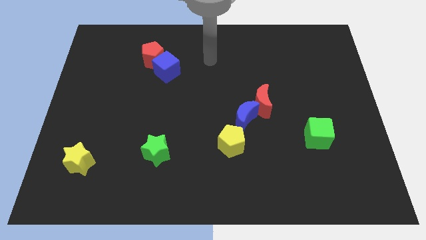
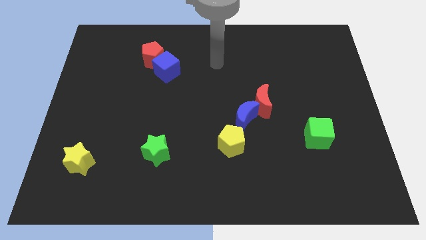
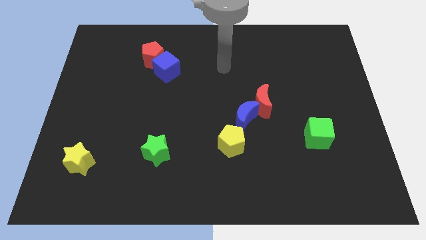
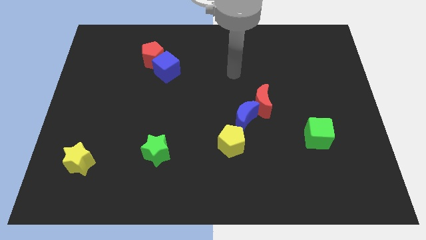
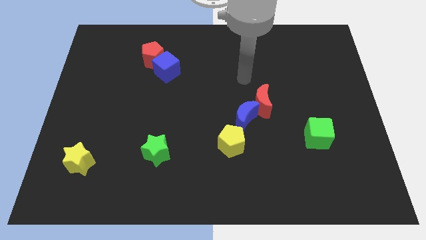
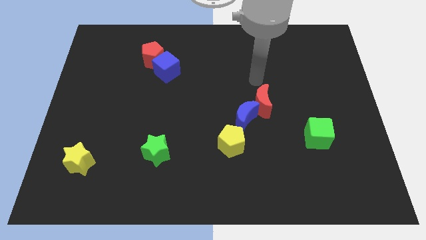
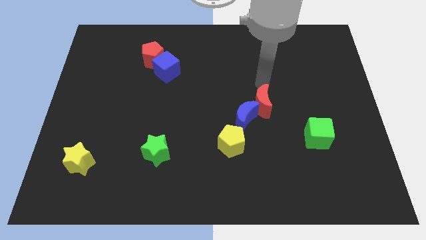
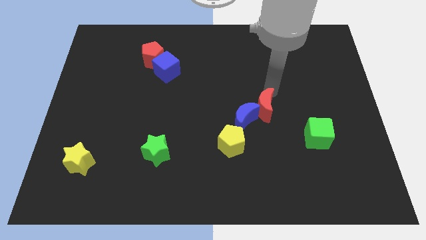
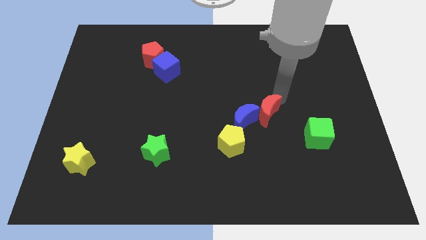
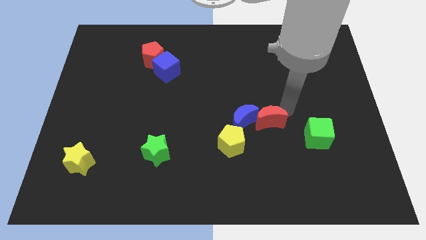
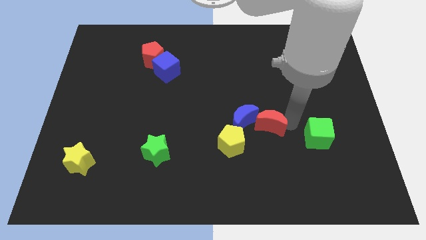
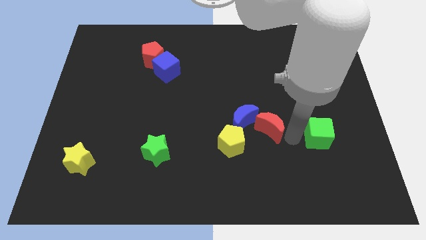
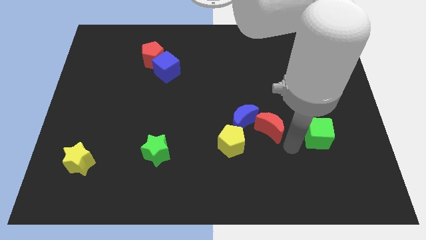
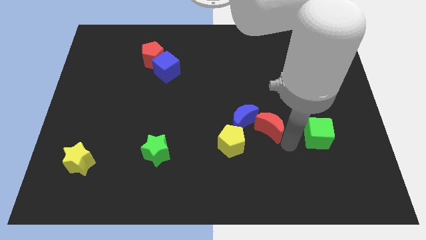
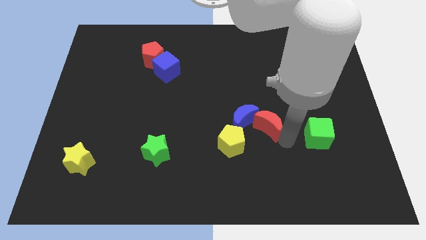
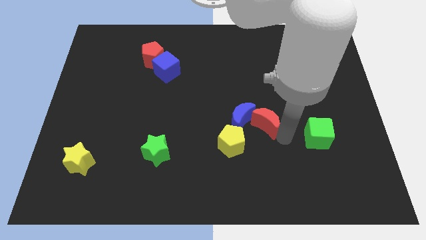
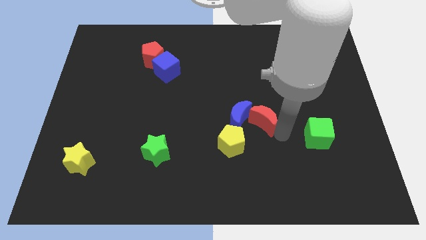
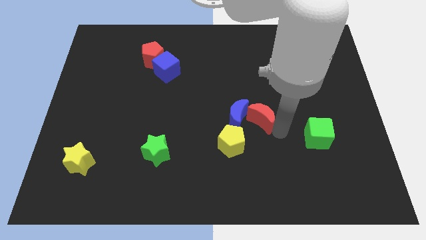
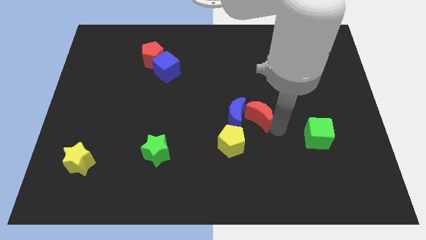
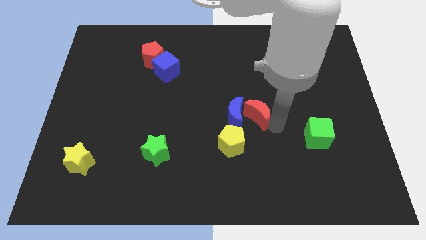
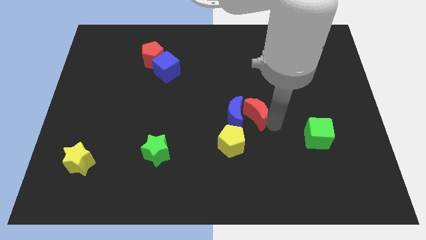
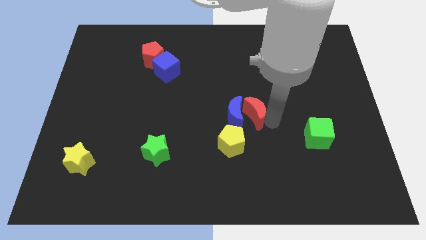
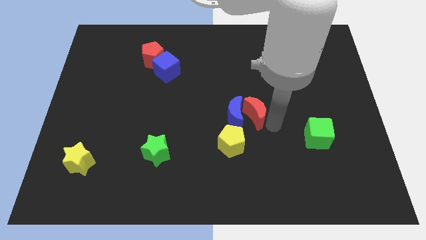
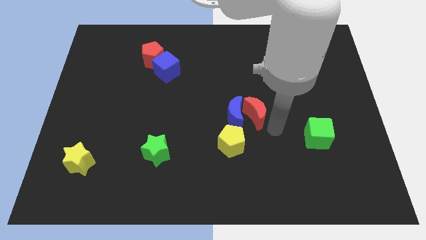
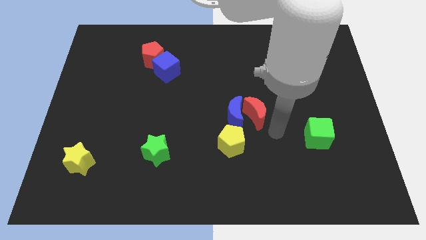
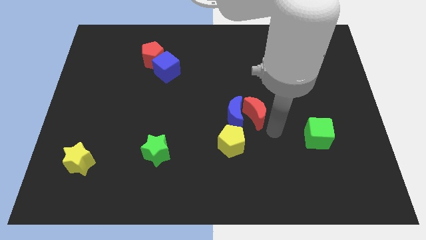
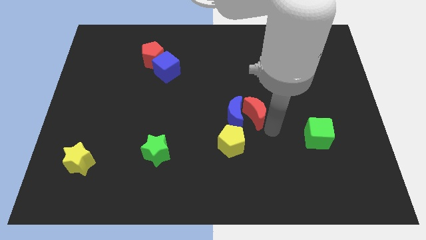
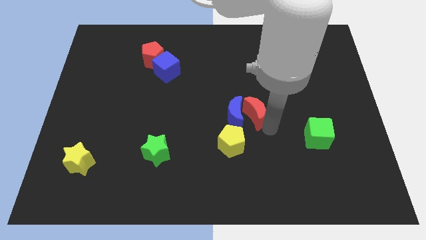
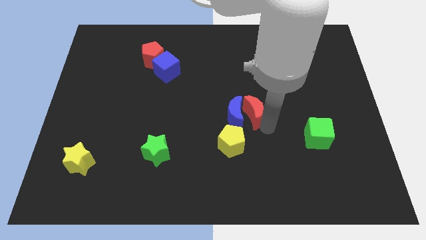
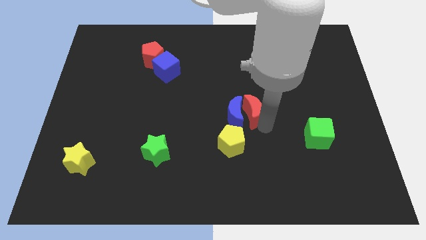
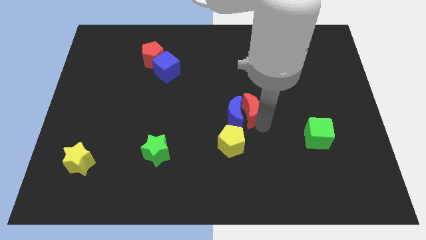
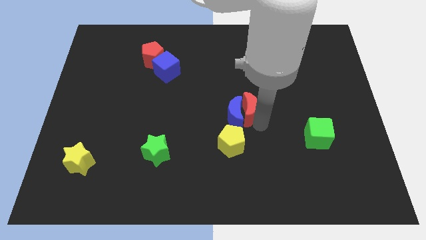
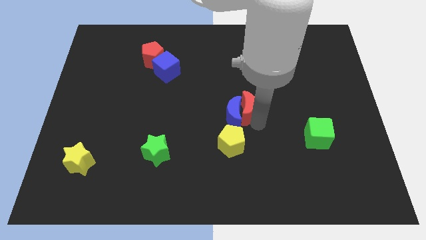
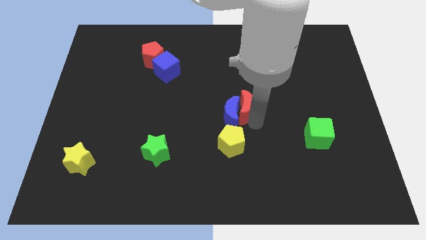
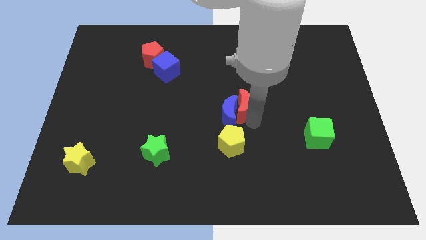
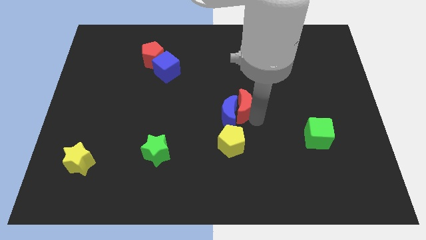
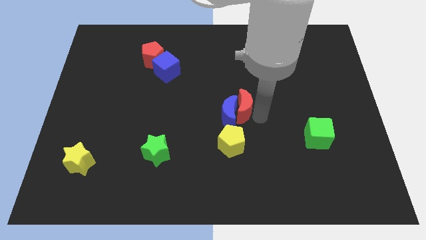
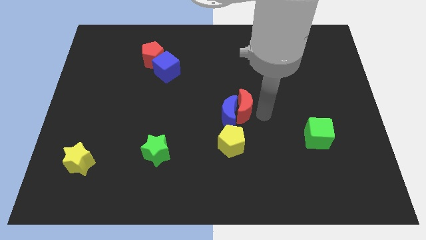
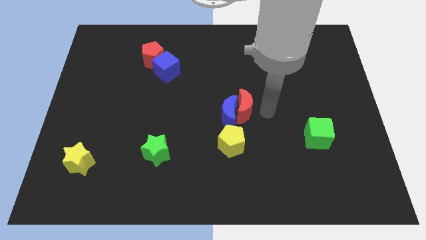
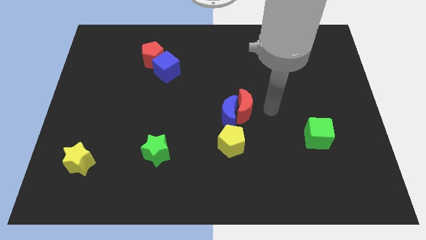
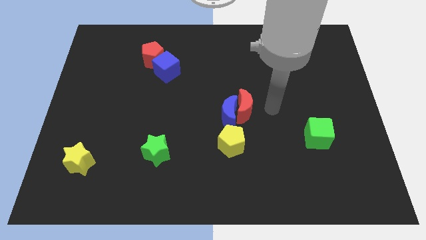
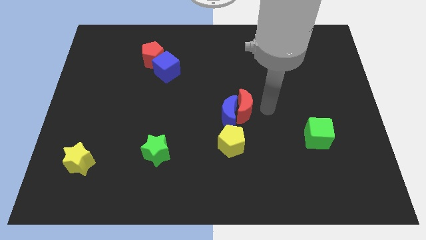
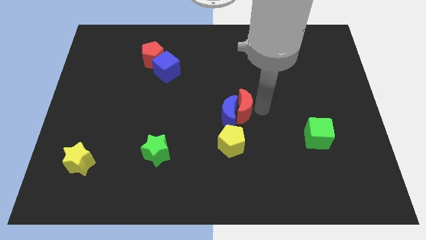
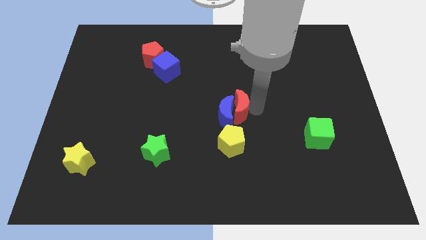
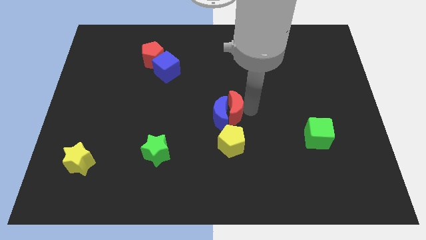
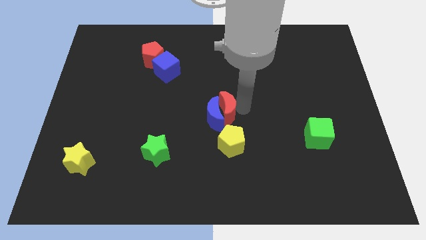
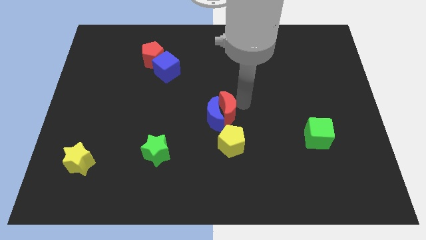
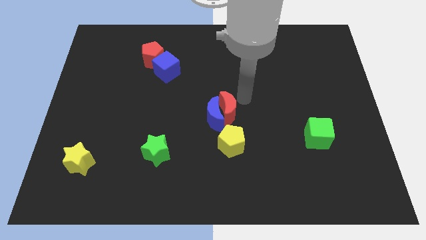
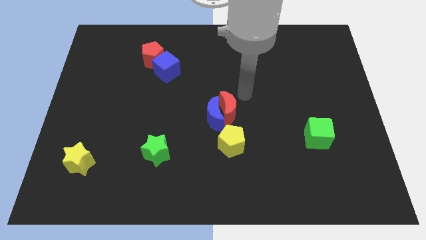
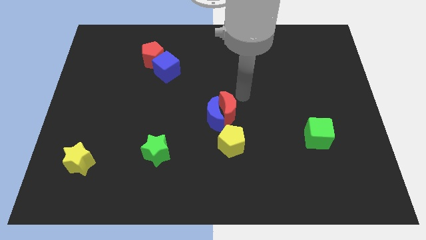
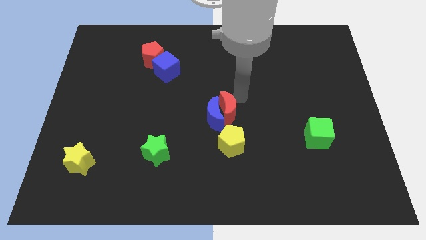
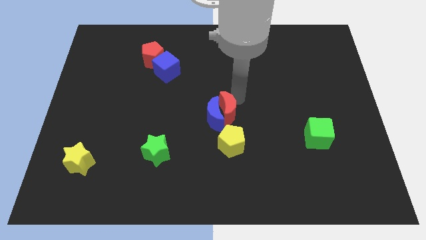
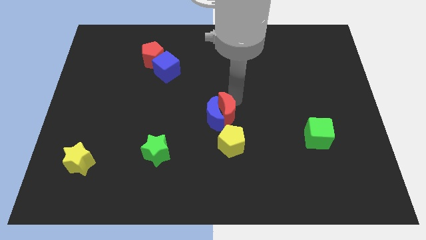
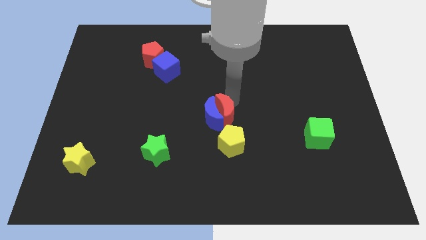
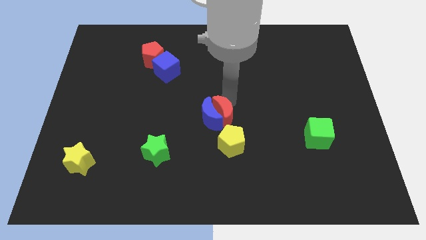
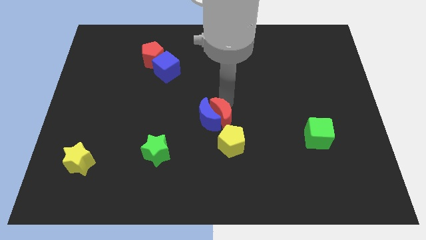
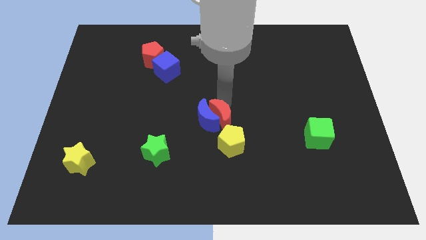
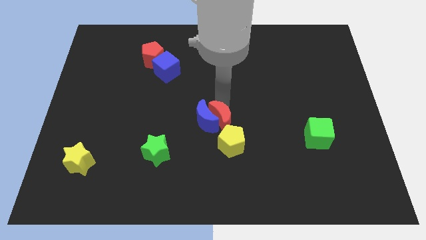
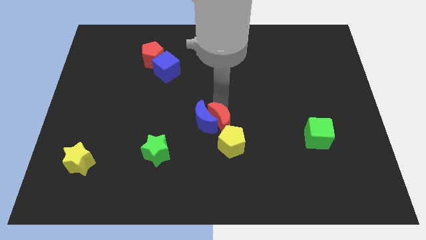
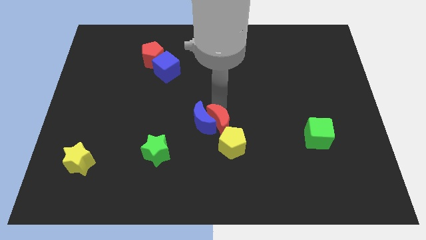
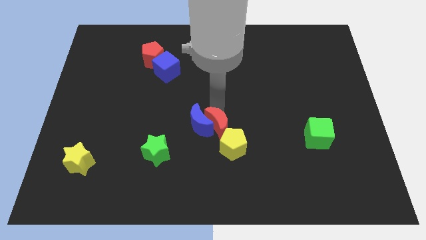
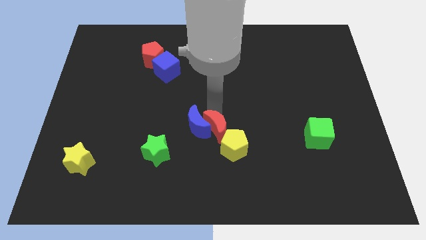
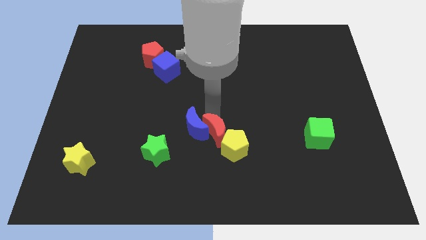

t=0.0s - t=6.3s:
push the red moon to the left of the yellow pentagon
